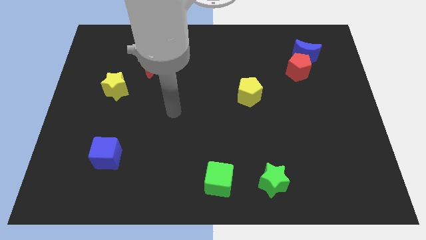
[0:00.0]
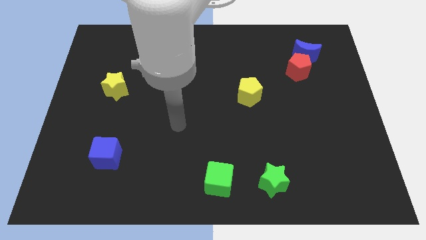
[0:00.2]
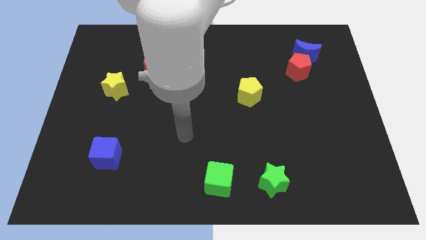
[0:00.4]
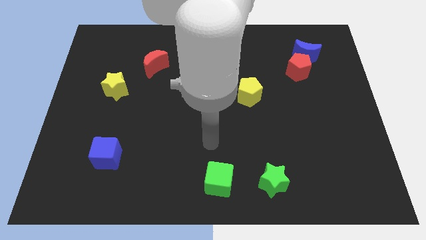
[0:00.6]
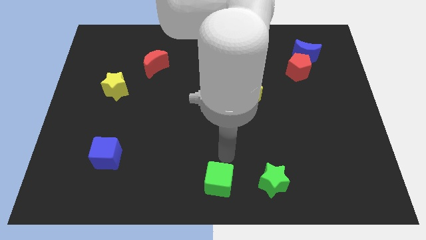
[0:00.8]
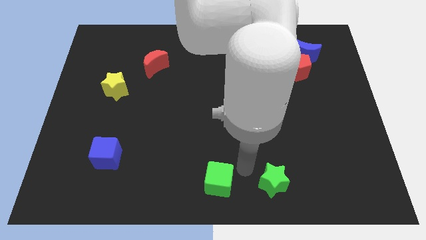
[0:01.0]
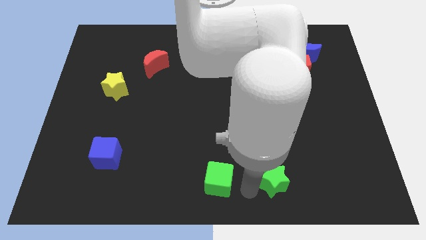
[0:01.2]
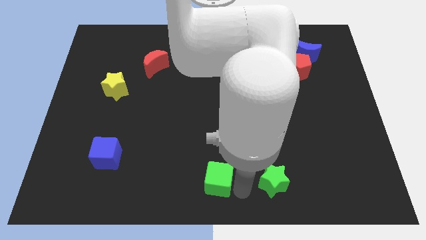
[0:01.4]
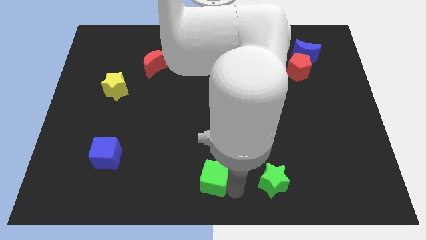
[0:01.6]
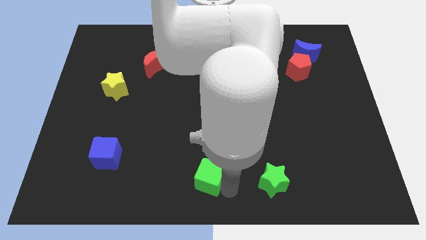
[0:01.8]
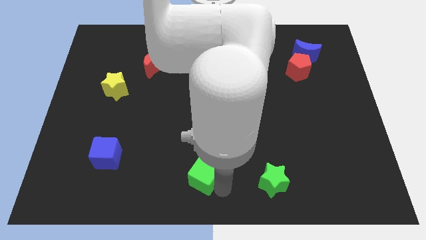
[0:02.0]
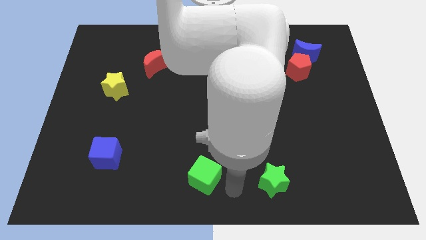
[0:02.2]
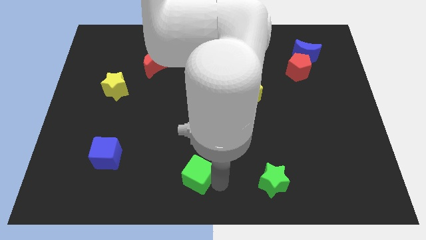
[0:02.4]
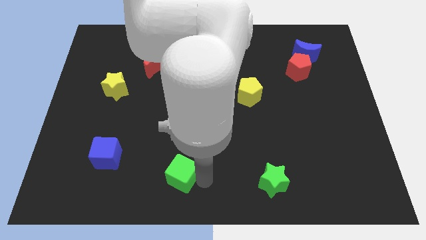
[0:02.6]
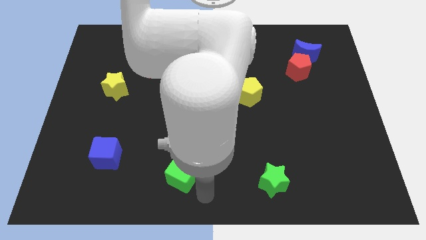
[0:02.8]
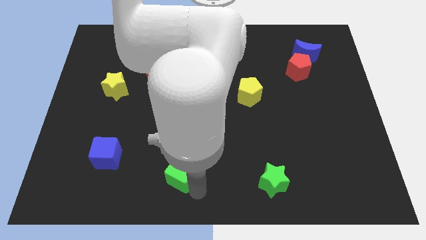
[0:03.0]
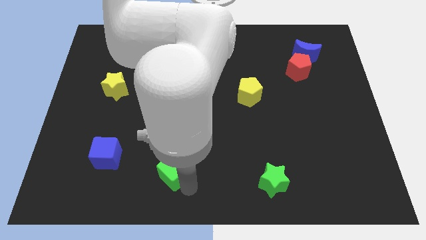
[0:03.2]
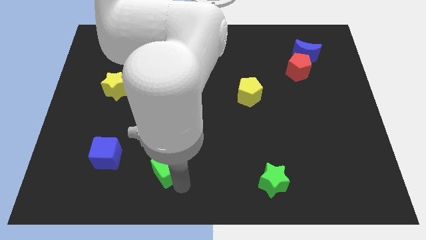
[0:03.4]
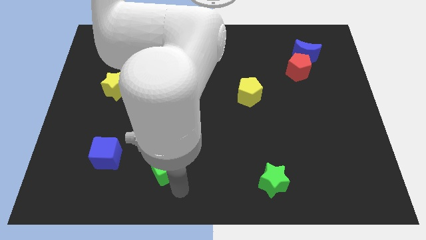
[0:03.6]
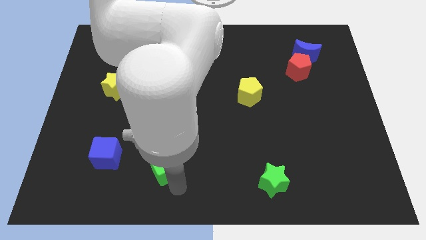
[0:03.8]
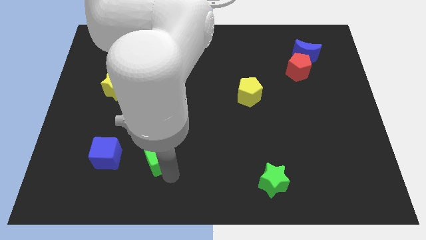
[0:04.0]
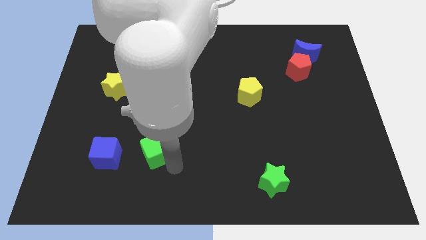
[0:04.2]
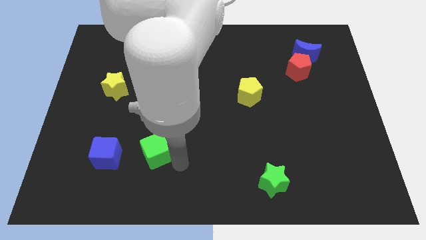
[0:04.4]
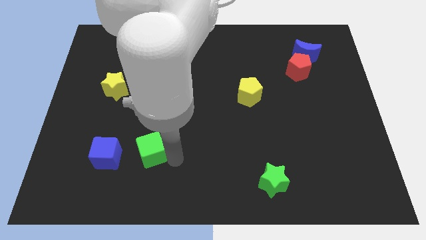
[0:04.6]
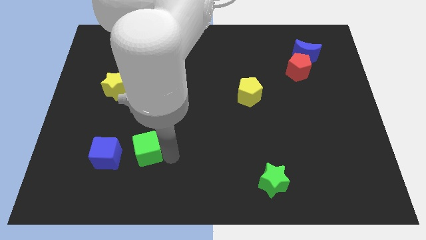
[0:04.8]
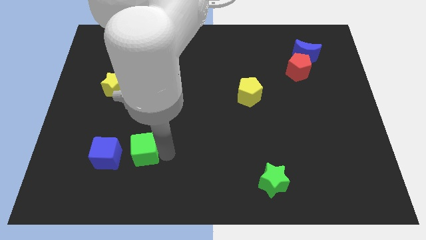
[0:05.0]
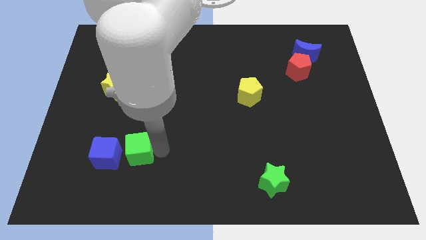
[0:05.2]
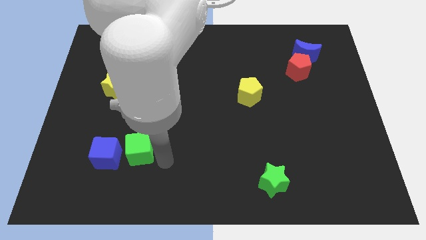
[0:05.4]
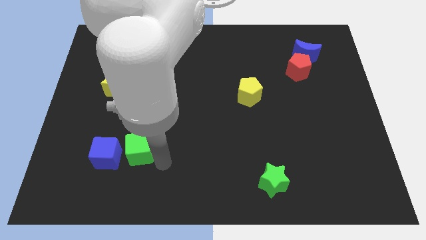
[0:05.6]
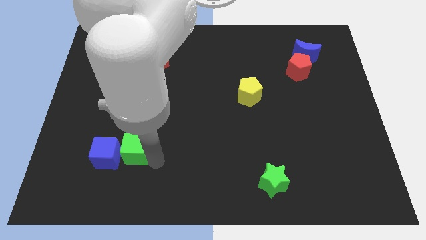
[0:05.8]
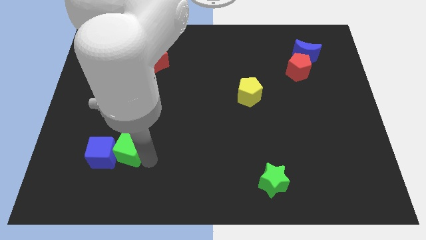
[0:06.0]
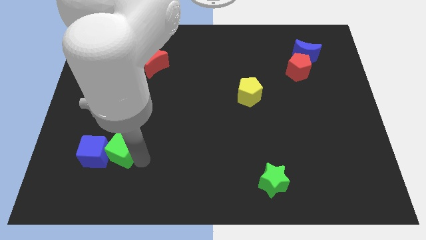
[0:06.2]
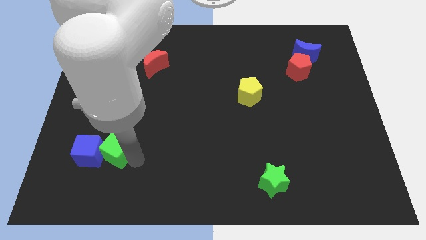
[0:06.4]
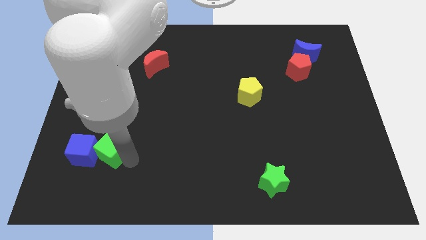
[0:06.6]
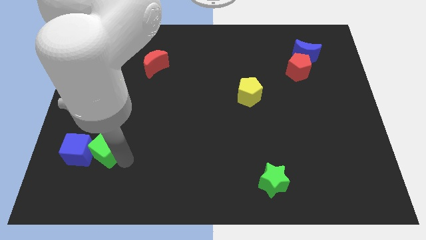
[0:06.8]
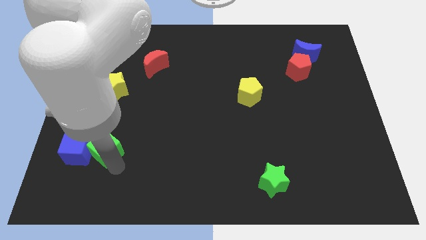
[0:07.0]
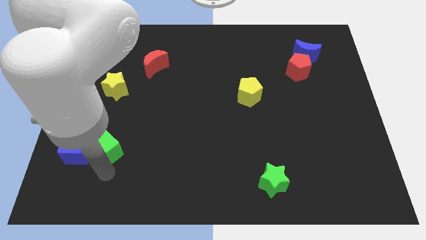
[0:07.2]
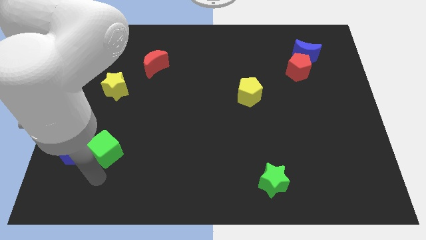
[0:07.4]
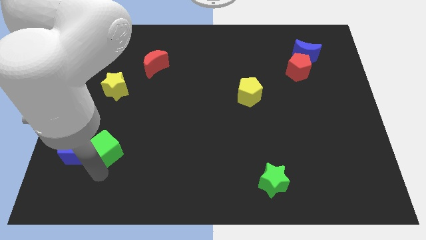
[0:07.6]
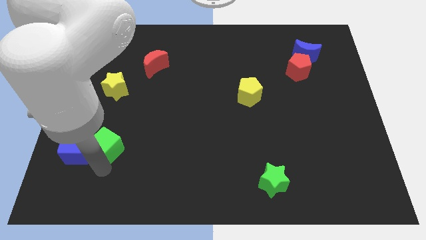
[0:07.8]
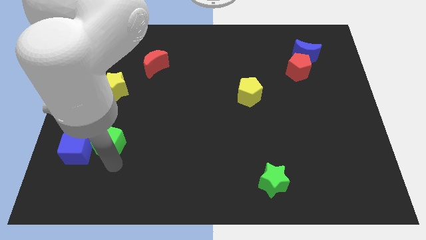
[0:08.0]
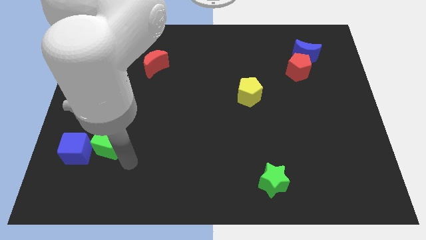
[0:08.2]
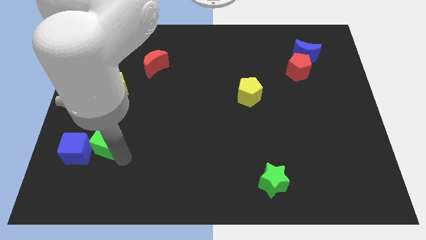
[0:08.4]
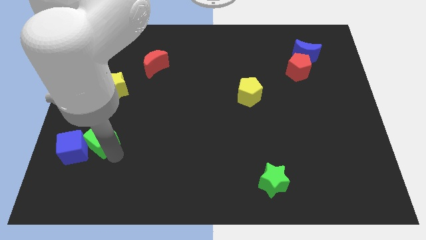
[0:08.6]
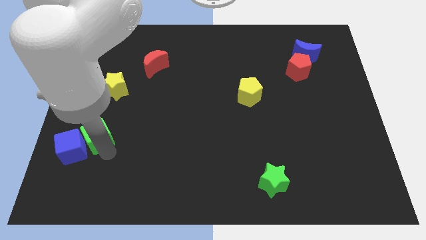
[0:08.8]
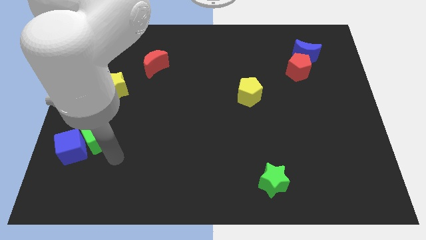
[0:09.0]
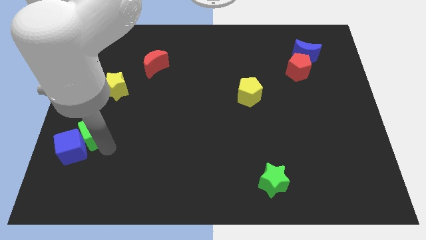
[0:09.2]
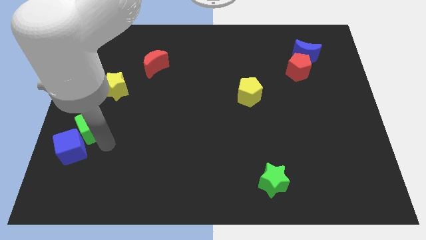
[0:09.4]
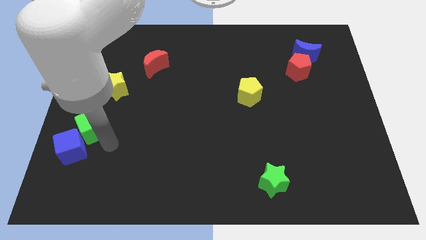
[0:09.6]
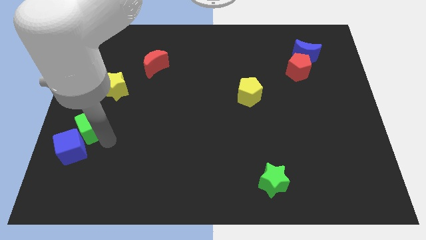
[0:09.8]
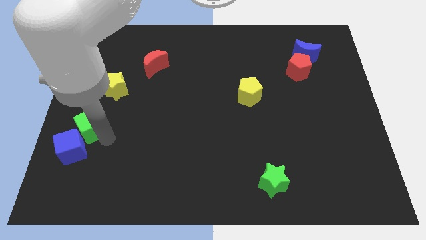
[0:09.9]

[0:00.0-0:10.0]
move the green cube to the left side

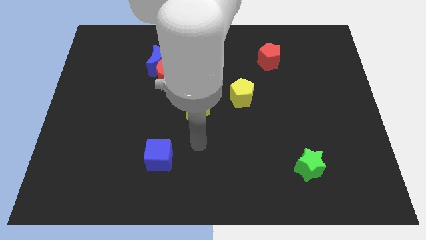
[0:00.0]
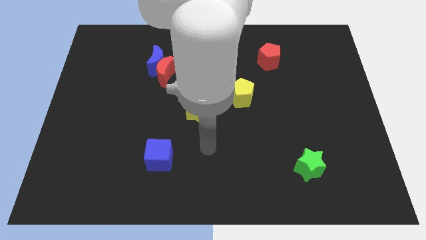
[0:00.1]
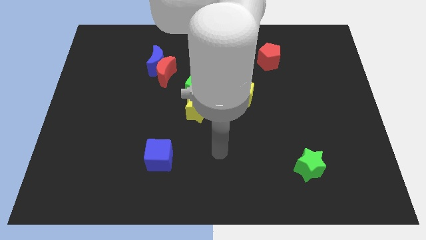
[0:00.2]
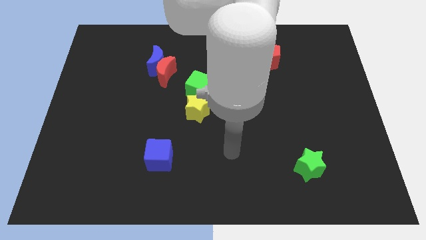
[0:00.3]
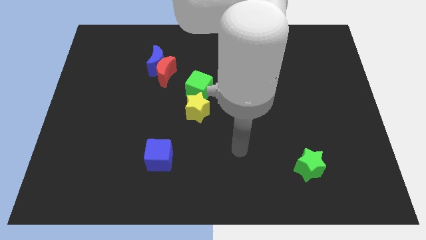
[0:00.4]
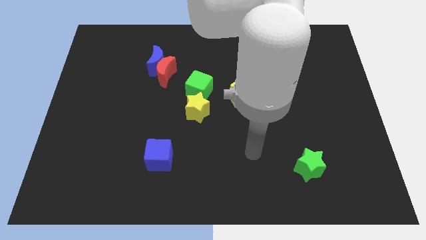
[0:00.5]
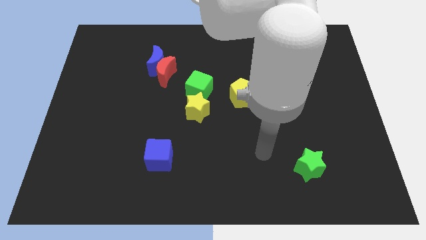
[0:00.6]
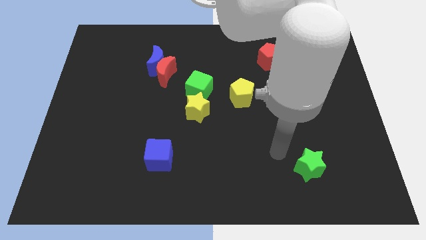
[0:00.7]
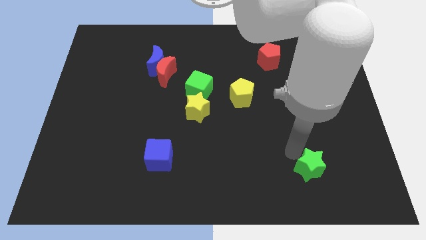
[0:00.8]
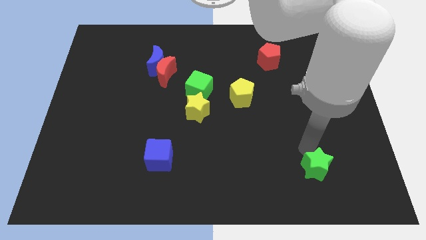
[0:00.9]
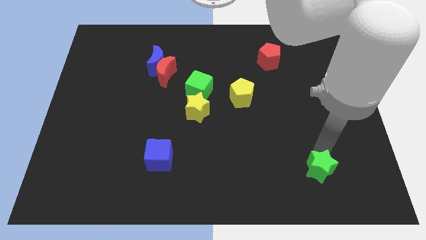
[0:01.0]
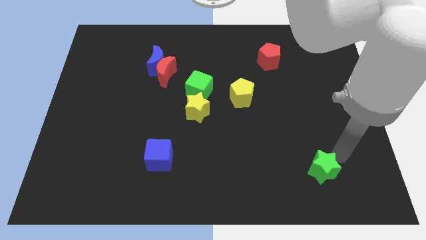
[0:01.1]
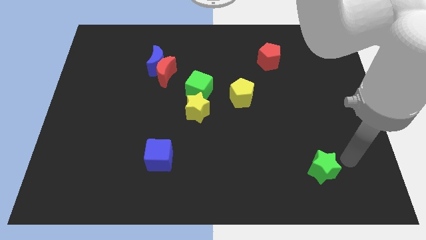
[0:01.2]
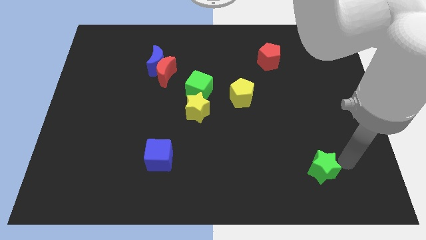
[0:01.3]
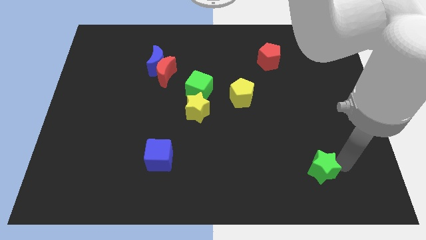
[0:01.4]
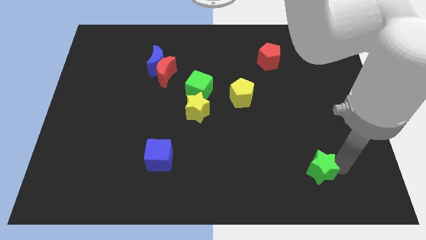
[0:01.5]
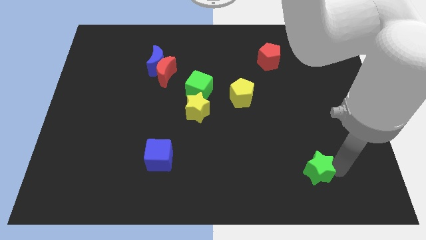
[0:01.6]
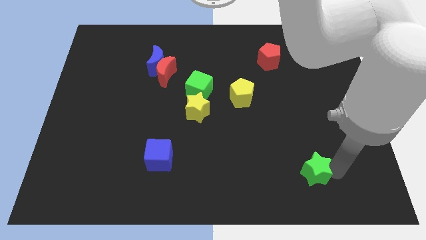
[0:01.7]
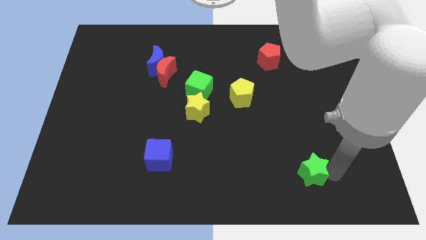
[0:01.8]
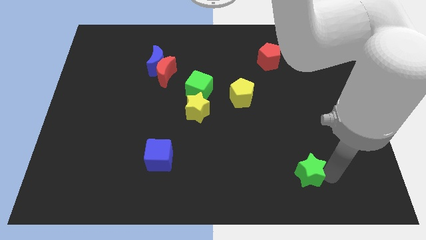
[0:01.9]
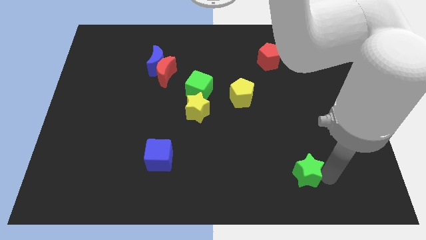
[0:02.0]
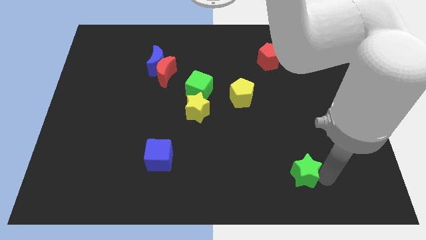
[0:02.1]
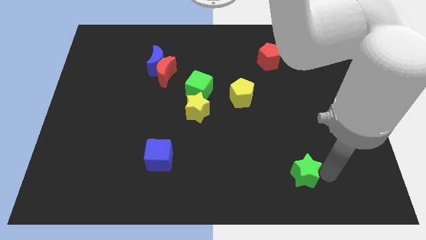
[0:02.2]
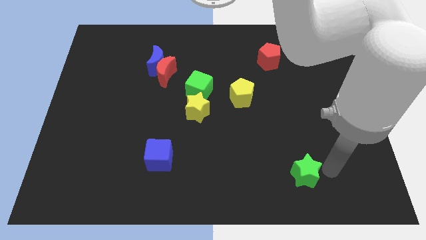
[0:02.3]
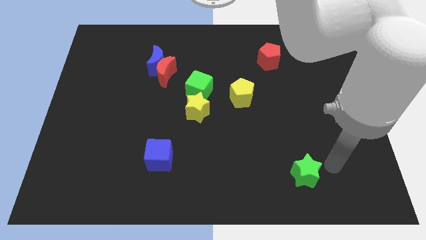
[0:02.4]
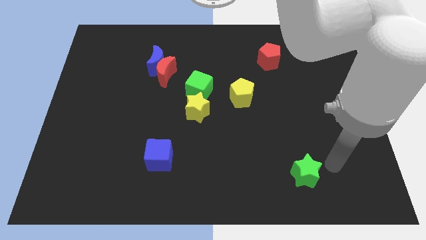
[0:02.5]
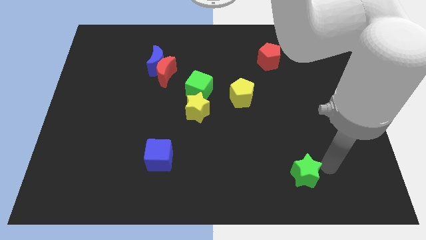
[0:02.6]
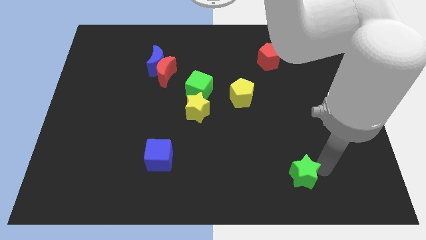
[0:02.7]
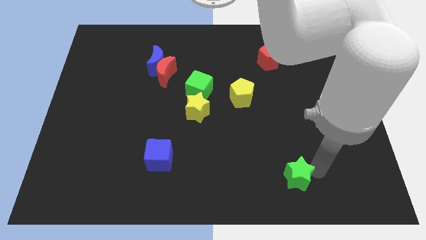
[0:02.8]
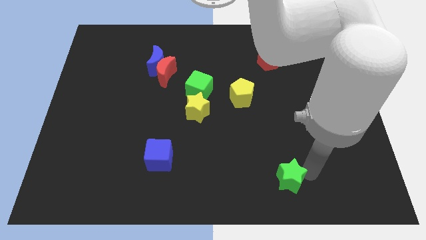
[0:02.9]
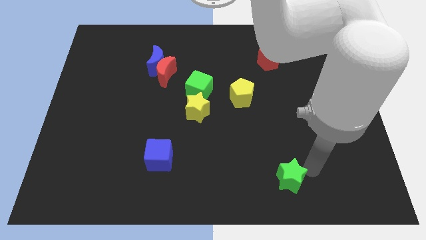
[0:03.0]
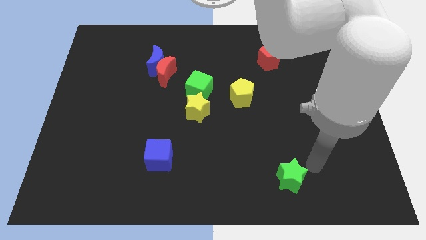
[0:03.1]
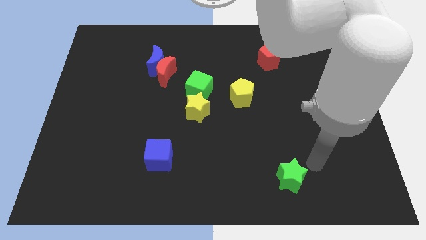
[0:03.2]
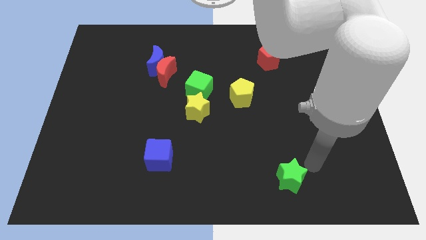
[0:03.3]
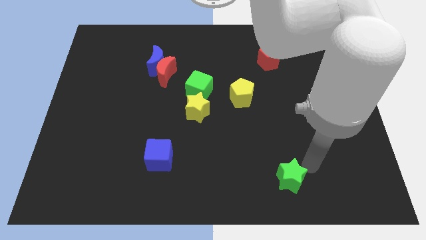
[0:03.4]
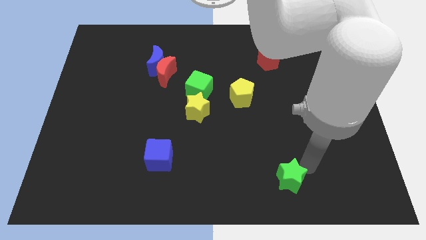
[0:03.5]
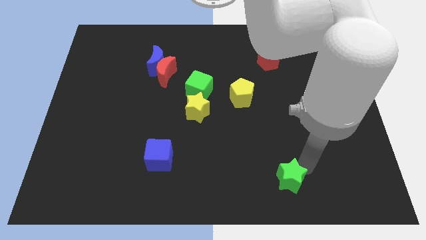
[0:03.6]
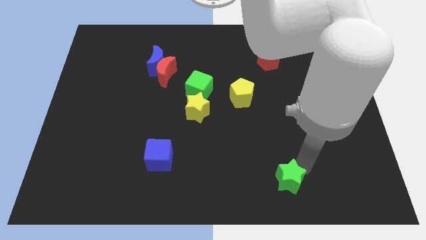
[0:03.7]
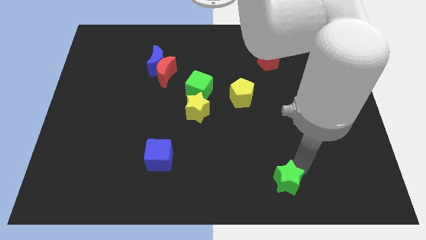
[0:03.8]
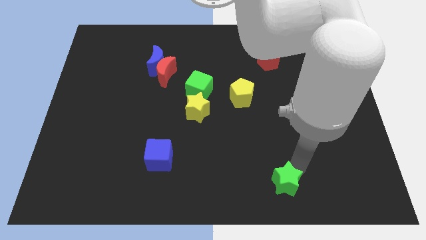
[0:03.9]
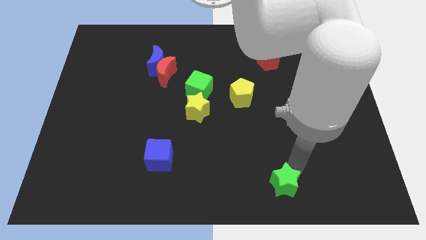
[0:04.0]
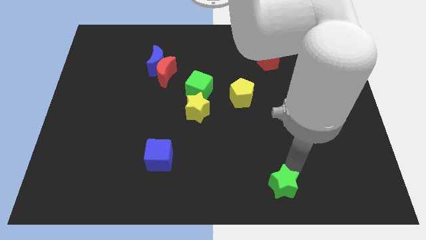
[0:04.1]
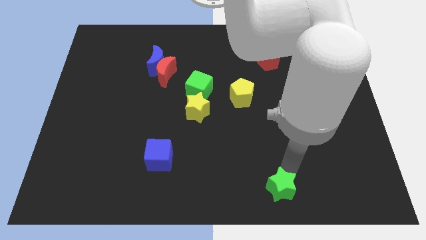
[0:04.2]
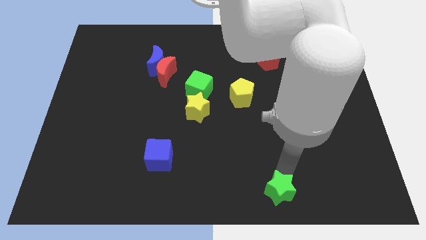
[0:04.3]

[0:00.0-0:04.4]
put the green star to the bottom side
